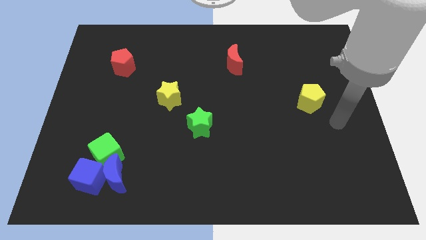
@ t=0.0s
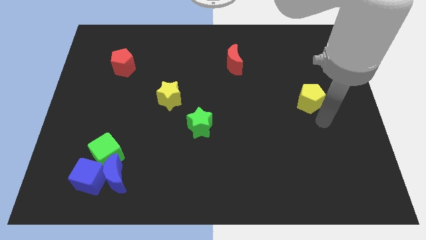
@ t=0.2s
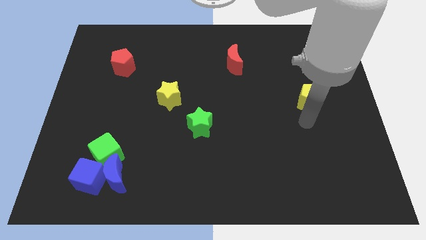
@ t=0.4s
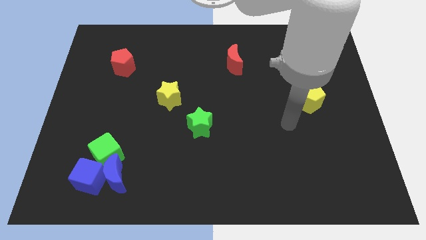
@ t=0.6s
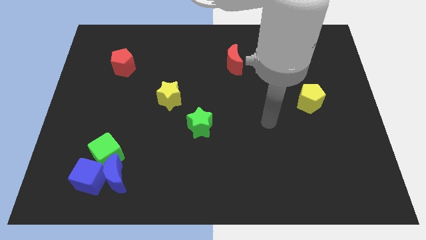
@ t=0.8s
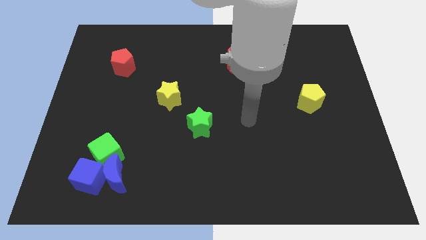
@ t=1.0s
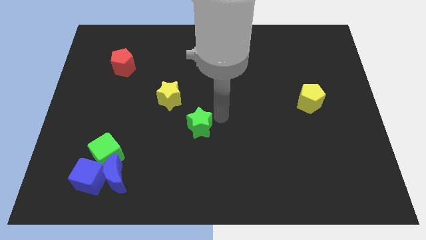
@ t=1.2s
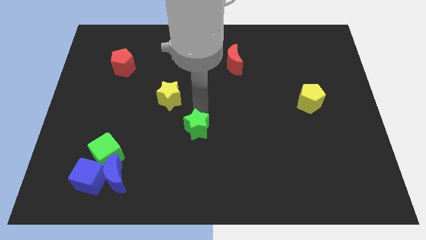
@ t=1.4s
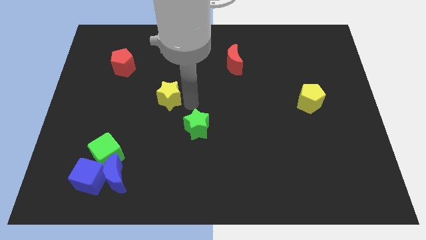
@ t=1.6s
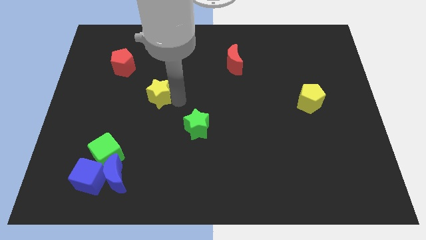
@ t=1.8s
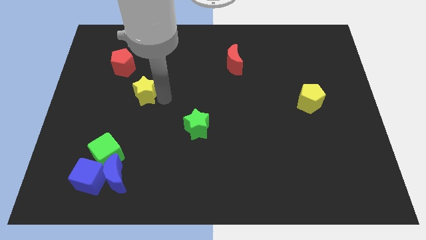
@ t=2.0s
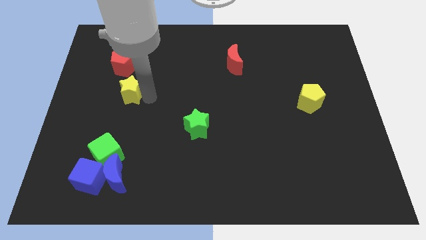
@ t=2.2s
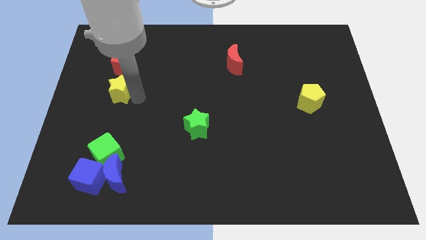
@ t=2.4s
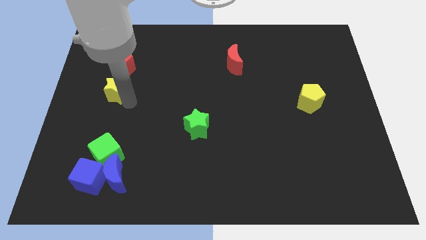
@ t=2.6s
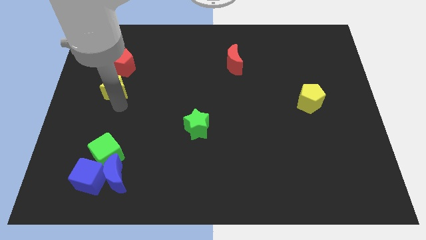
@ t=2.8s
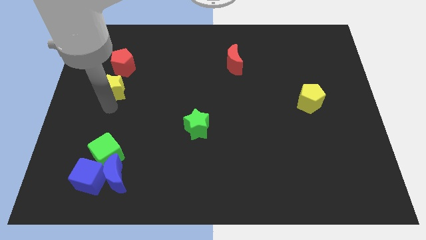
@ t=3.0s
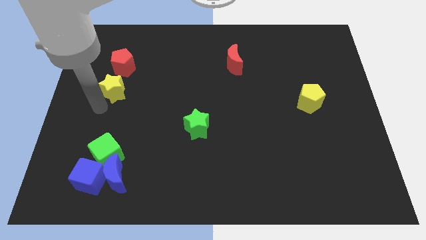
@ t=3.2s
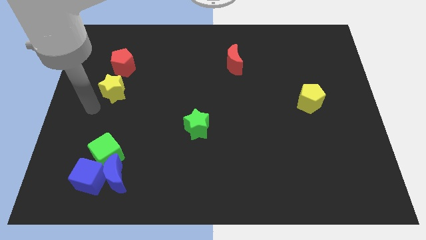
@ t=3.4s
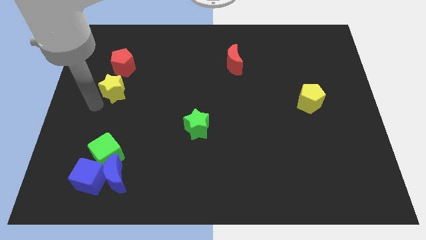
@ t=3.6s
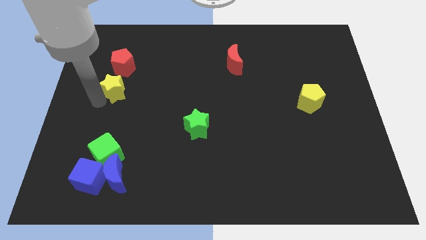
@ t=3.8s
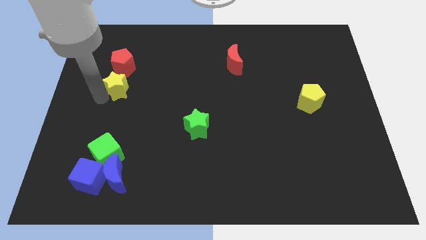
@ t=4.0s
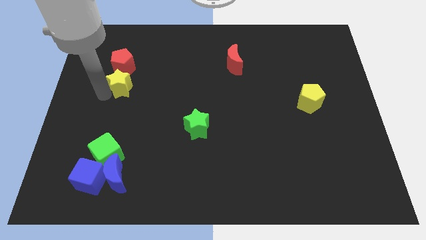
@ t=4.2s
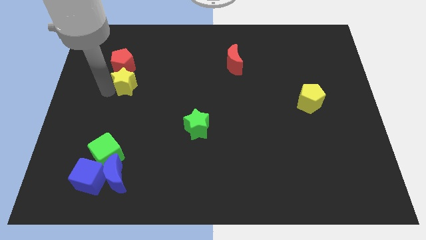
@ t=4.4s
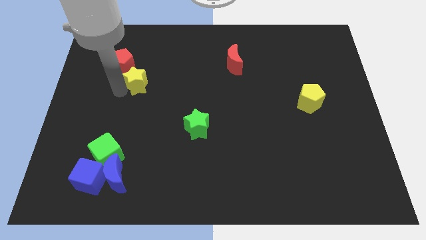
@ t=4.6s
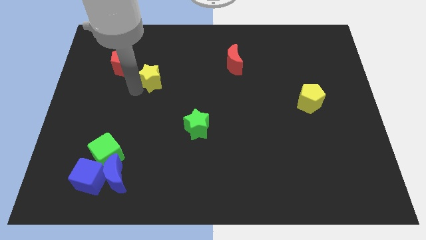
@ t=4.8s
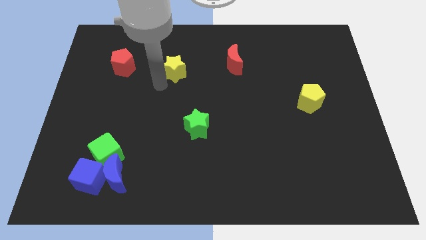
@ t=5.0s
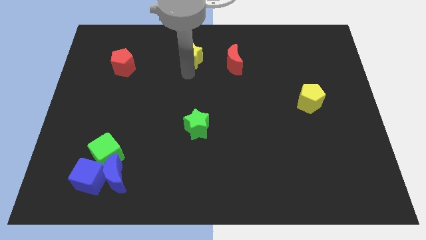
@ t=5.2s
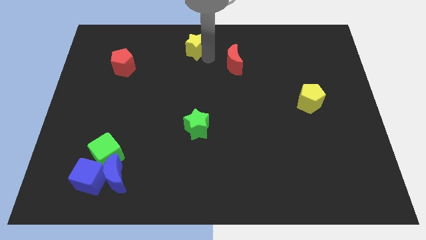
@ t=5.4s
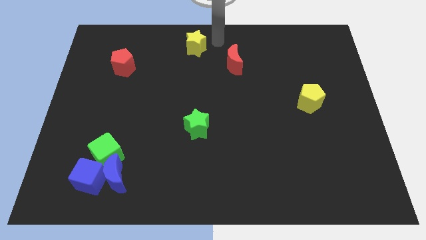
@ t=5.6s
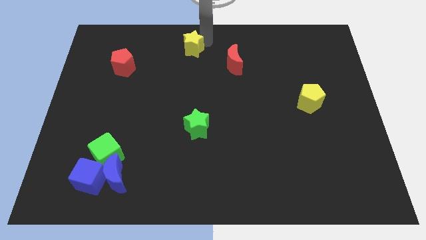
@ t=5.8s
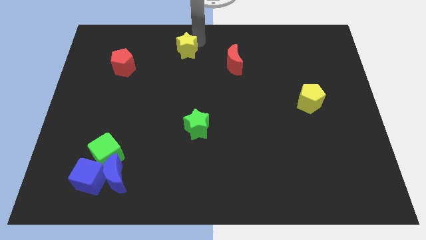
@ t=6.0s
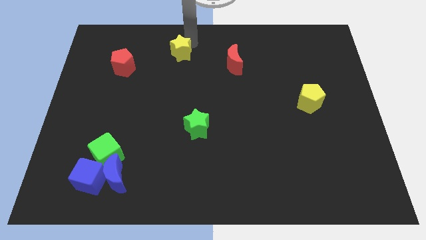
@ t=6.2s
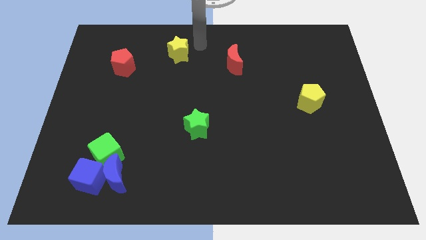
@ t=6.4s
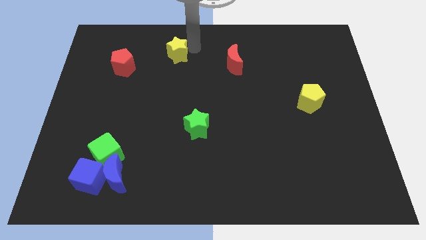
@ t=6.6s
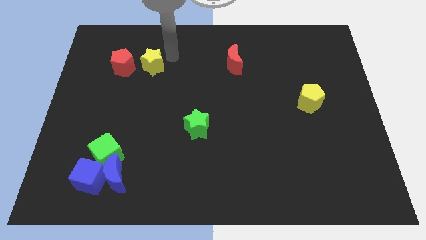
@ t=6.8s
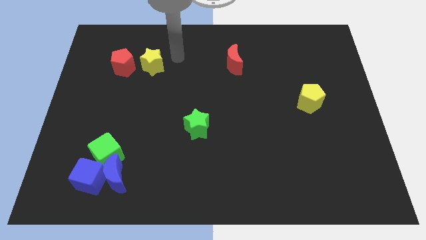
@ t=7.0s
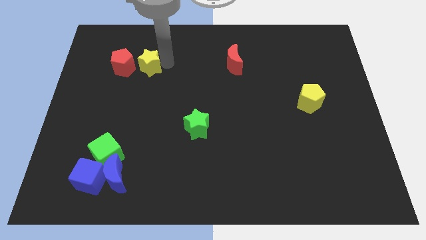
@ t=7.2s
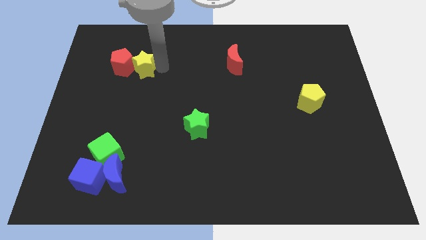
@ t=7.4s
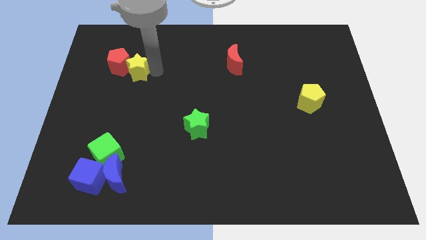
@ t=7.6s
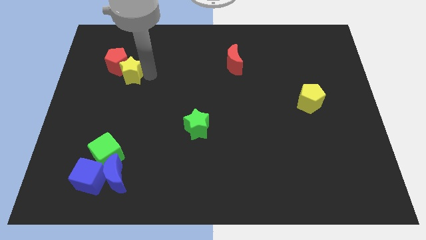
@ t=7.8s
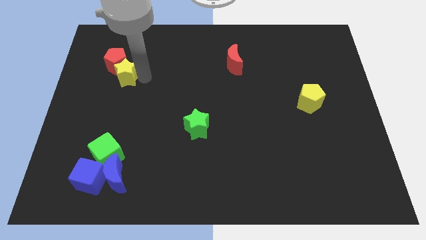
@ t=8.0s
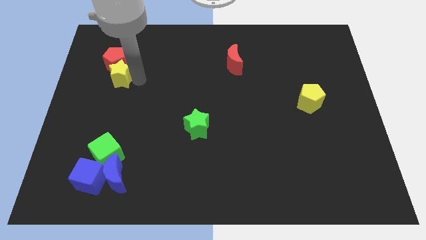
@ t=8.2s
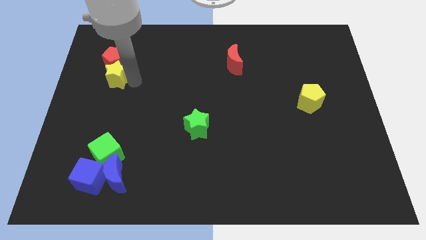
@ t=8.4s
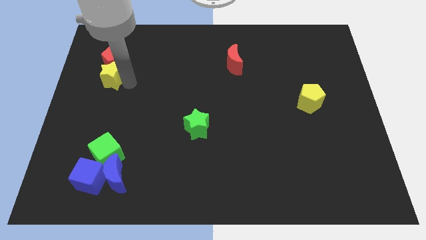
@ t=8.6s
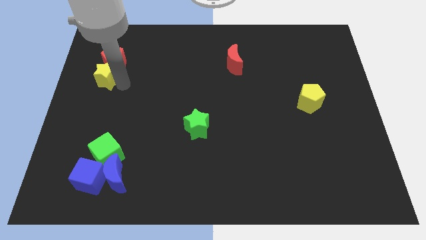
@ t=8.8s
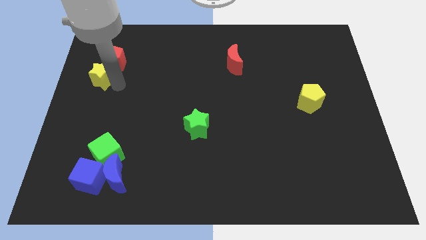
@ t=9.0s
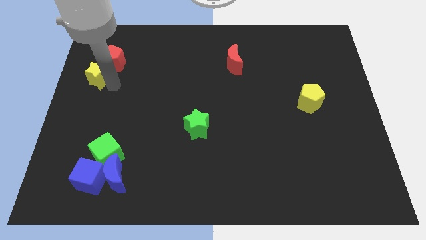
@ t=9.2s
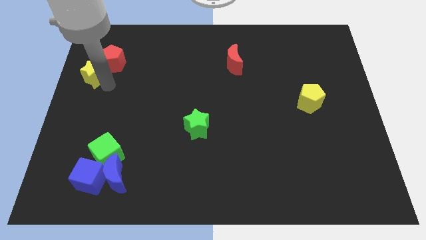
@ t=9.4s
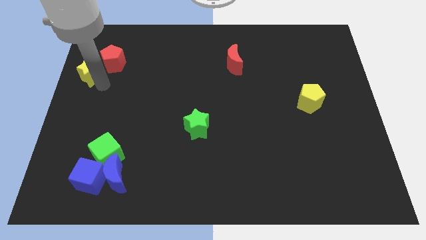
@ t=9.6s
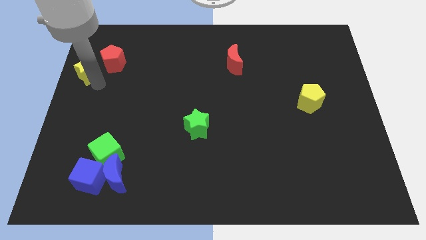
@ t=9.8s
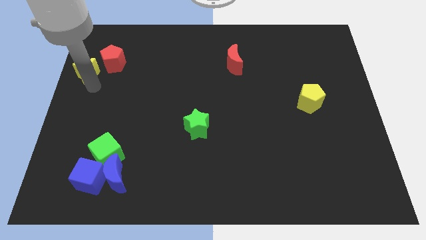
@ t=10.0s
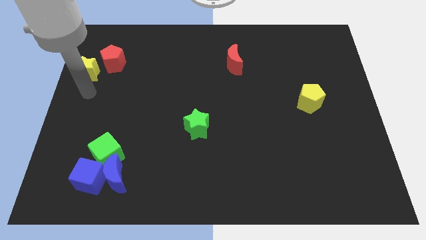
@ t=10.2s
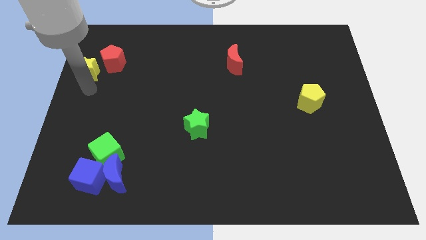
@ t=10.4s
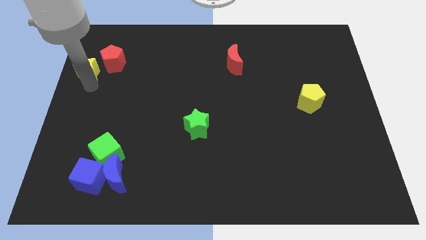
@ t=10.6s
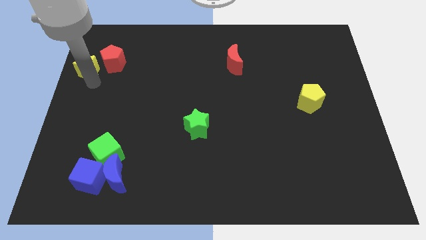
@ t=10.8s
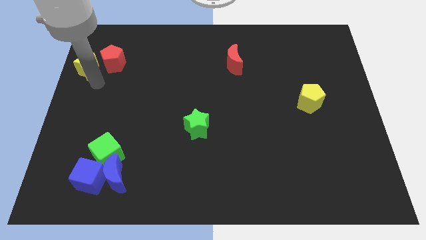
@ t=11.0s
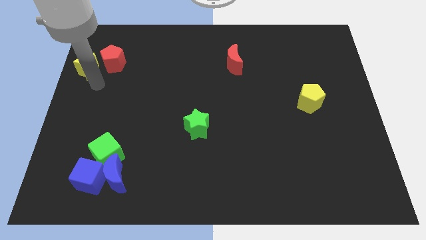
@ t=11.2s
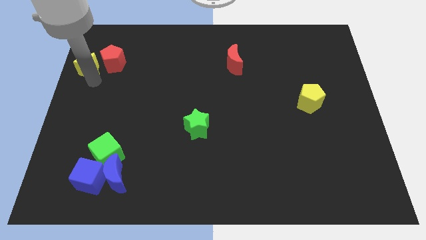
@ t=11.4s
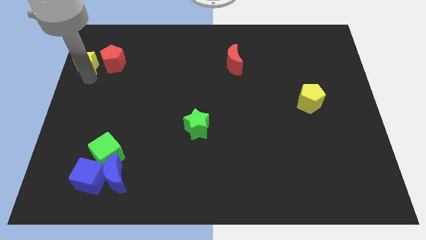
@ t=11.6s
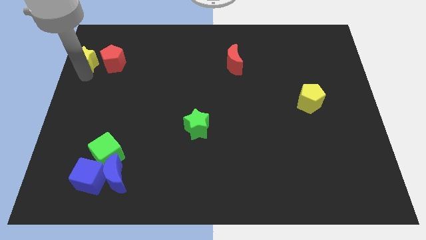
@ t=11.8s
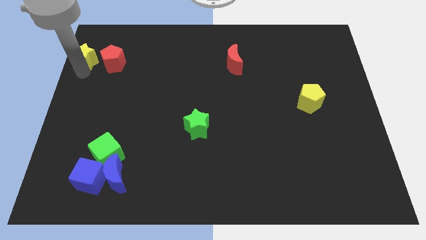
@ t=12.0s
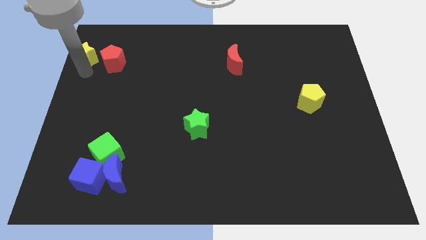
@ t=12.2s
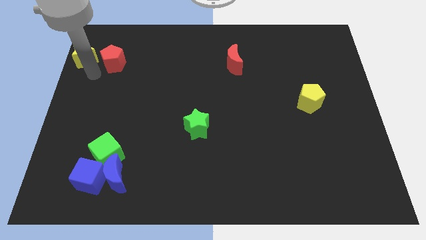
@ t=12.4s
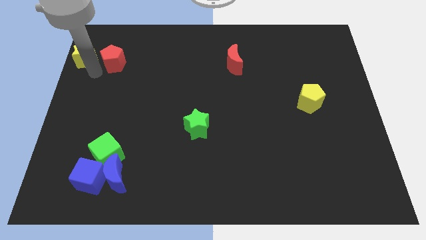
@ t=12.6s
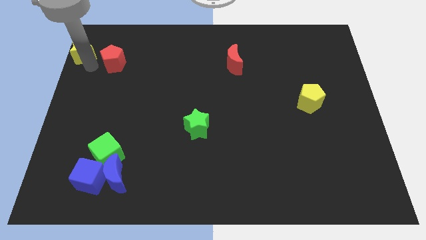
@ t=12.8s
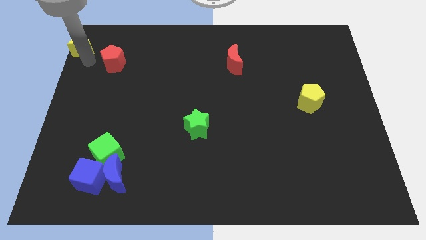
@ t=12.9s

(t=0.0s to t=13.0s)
slide the yellow star to the top left
